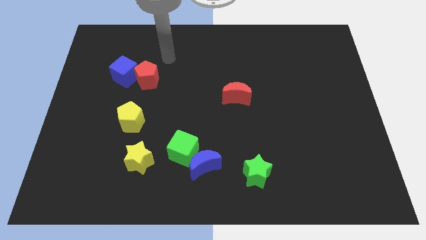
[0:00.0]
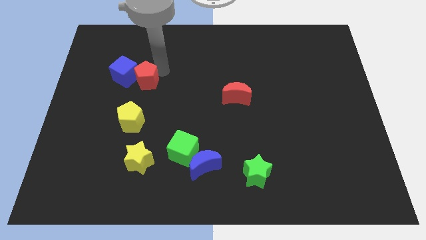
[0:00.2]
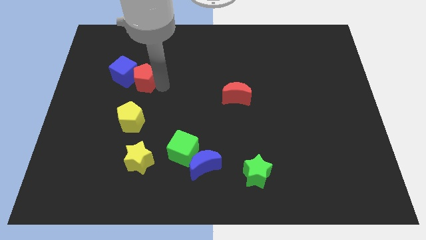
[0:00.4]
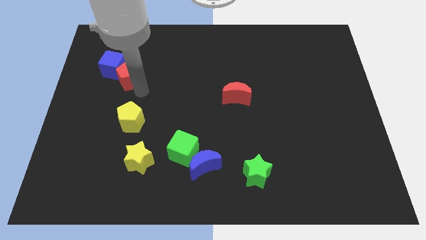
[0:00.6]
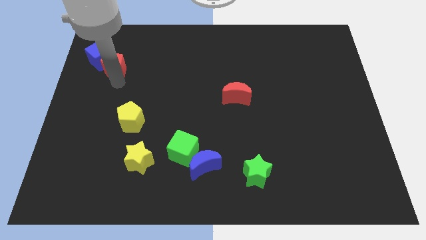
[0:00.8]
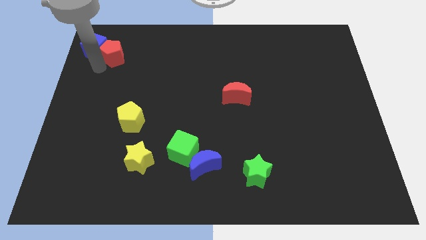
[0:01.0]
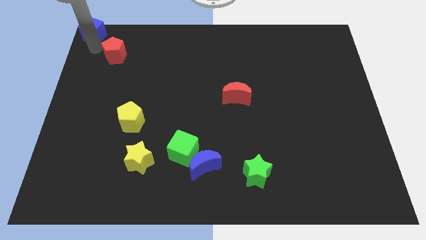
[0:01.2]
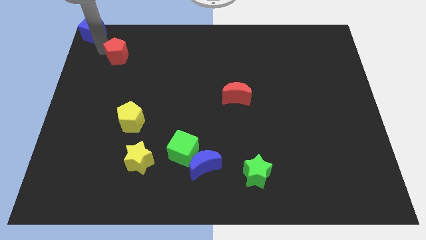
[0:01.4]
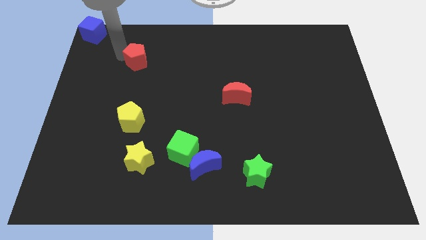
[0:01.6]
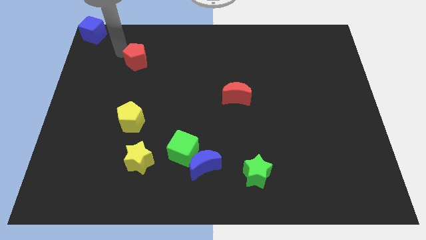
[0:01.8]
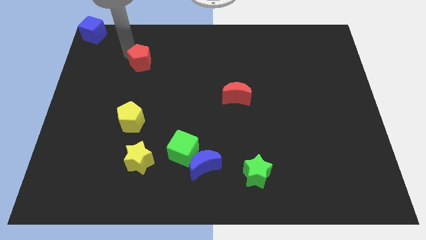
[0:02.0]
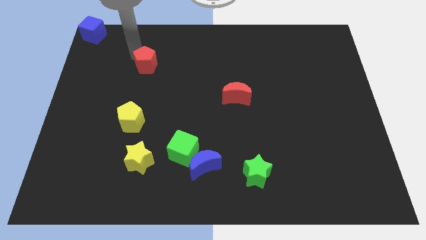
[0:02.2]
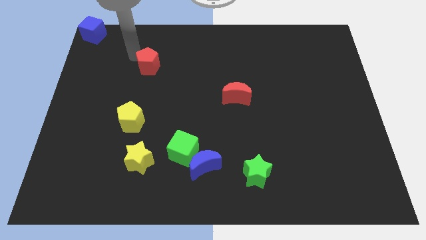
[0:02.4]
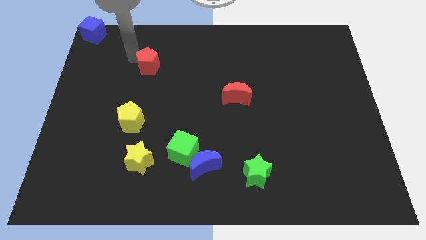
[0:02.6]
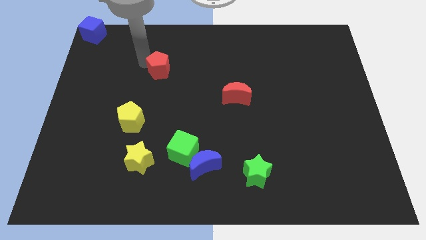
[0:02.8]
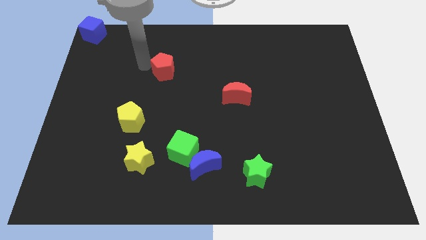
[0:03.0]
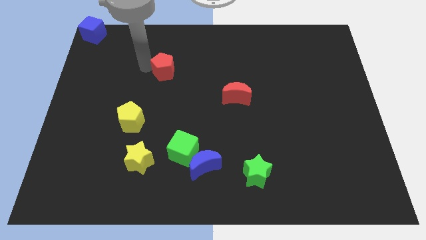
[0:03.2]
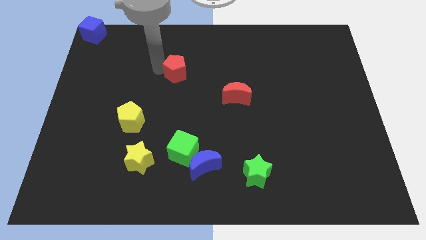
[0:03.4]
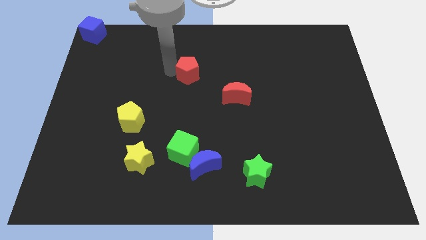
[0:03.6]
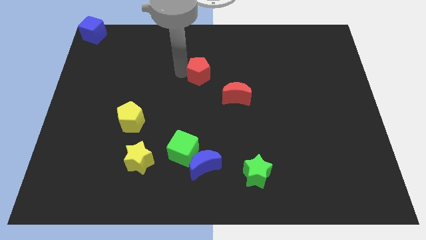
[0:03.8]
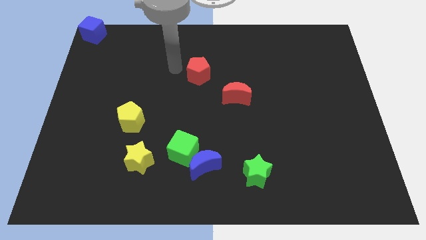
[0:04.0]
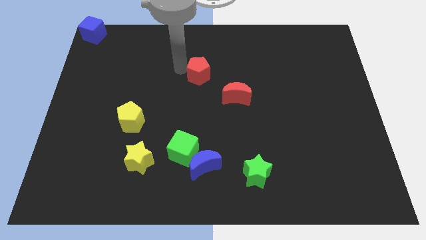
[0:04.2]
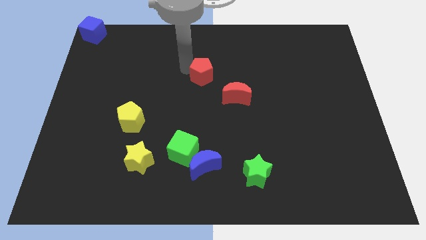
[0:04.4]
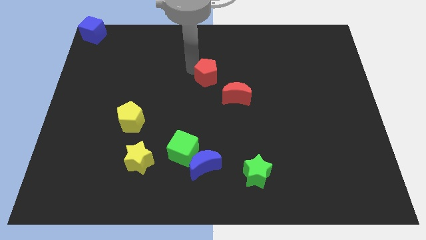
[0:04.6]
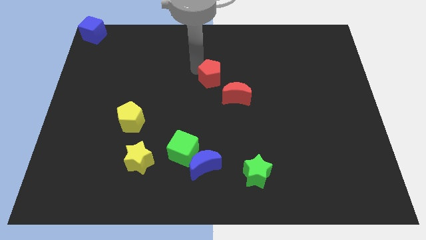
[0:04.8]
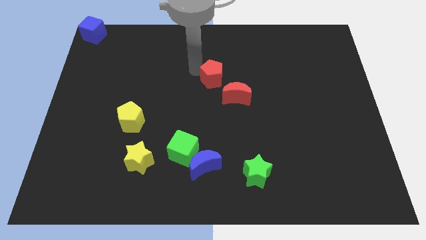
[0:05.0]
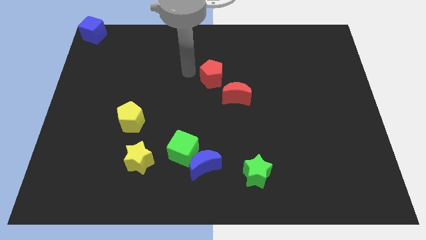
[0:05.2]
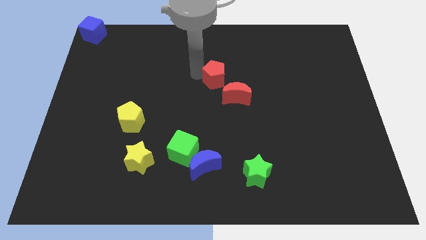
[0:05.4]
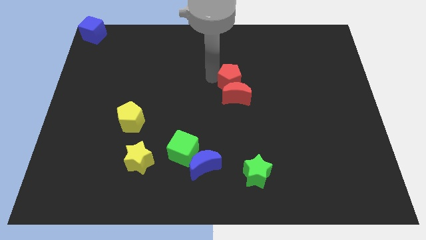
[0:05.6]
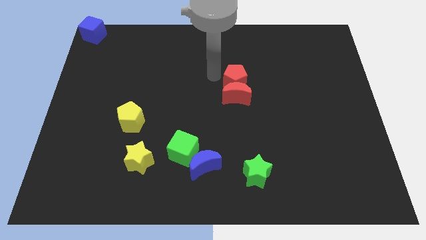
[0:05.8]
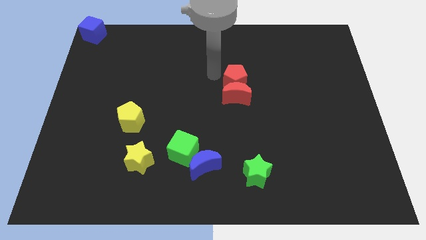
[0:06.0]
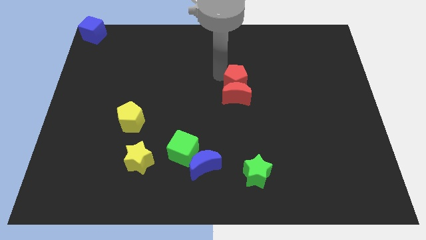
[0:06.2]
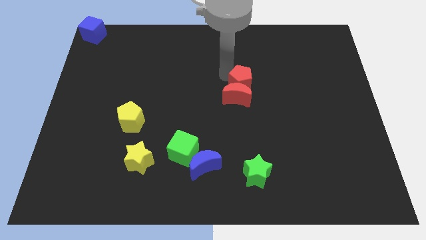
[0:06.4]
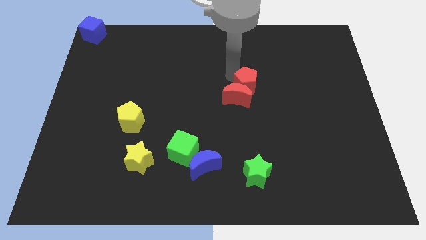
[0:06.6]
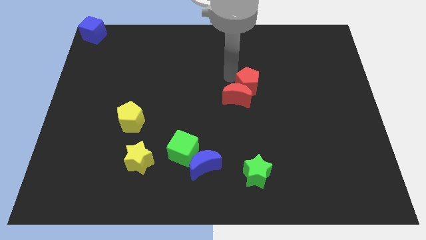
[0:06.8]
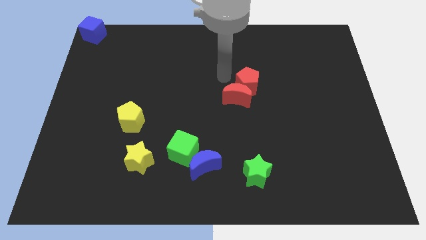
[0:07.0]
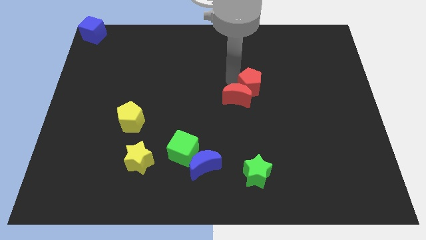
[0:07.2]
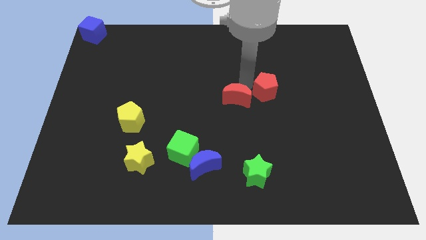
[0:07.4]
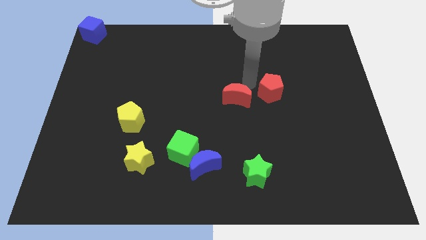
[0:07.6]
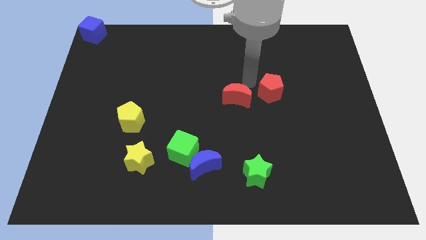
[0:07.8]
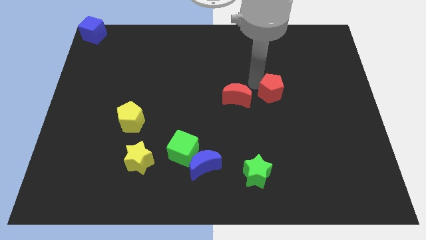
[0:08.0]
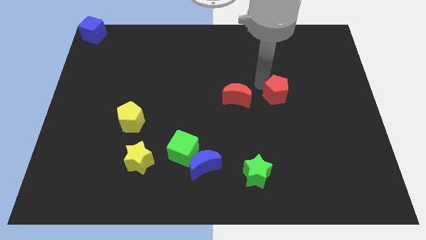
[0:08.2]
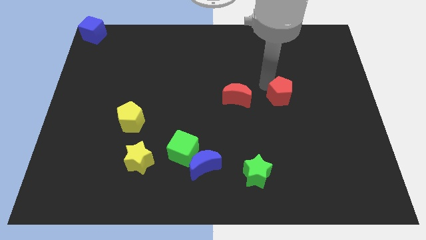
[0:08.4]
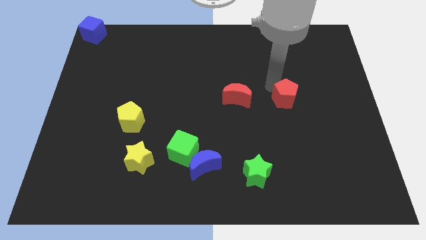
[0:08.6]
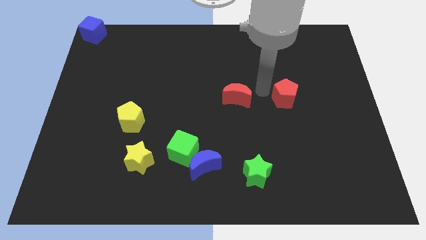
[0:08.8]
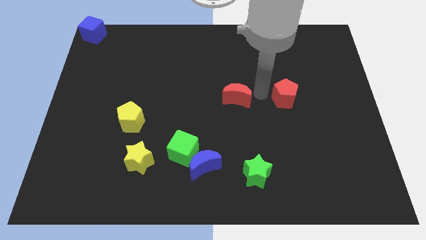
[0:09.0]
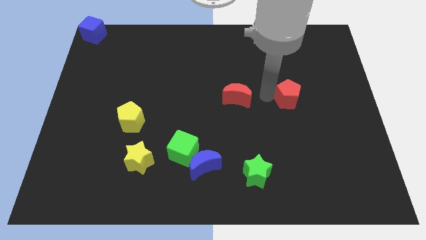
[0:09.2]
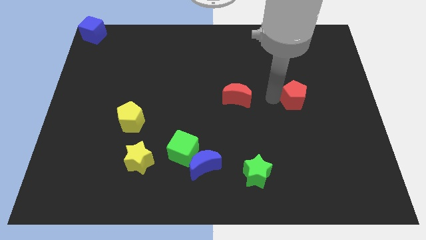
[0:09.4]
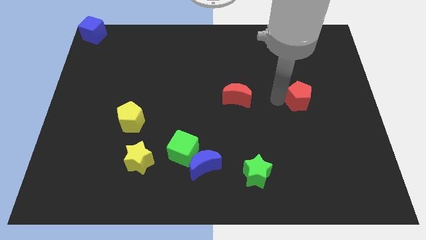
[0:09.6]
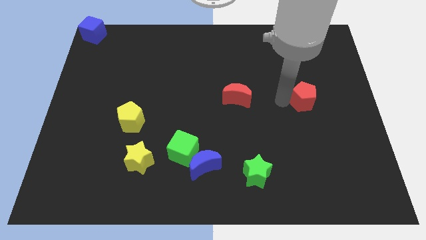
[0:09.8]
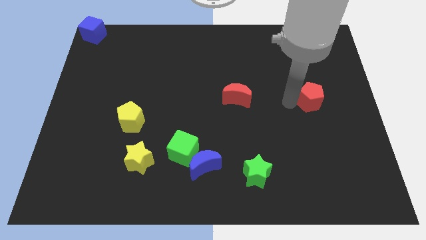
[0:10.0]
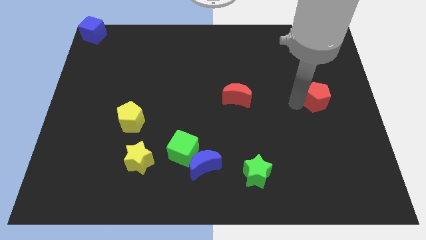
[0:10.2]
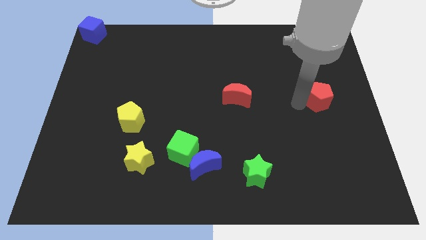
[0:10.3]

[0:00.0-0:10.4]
put the red pentagon to the right side

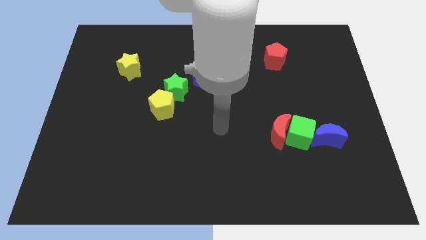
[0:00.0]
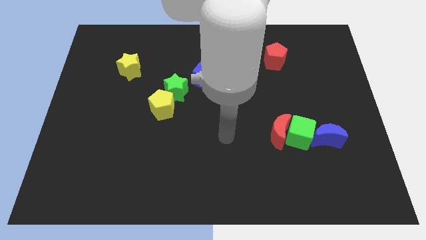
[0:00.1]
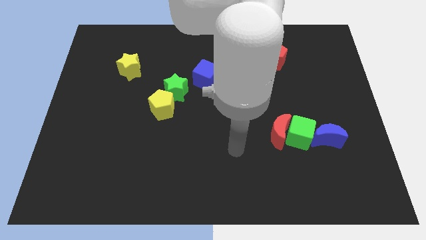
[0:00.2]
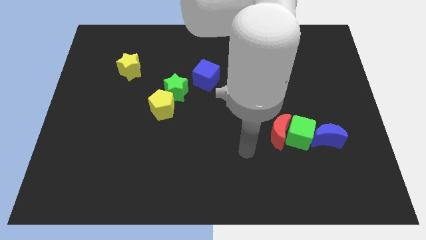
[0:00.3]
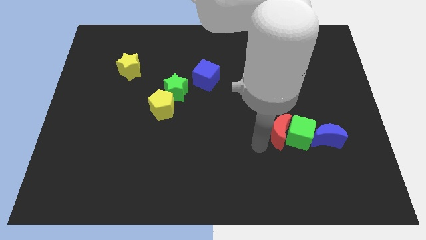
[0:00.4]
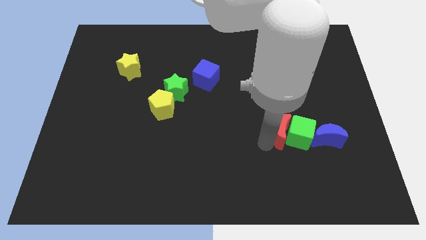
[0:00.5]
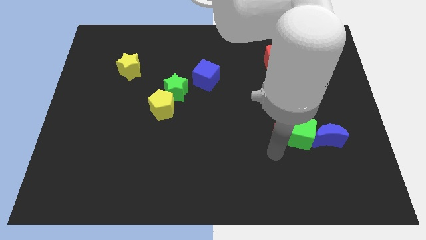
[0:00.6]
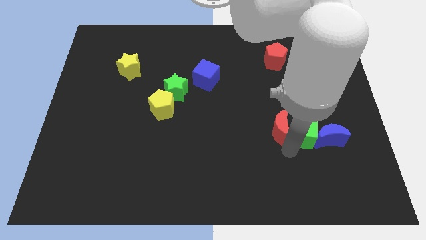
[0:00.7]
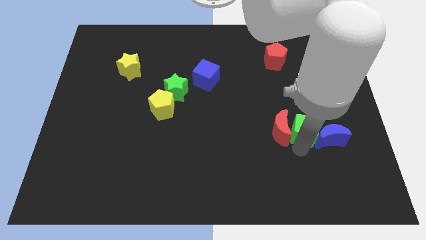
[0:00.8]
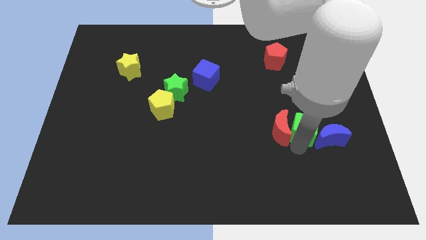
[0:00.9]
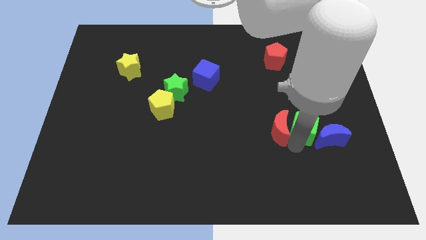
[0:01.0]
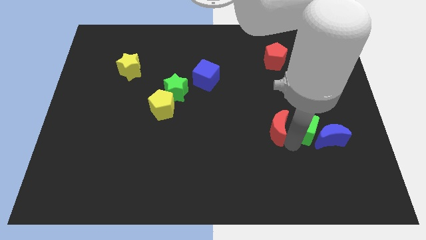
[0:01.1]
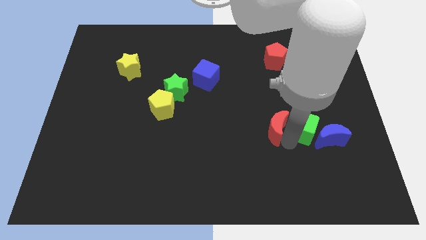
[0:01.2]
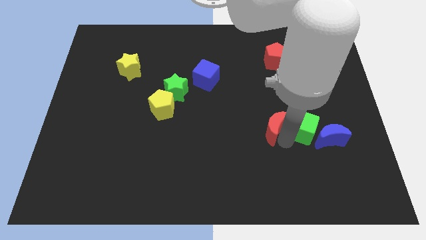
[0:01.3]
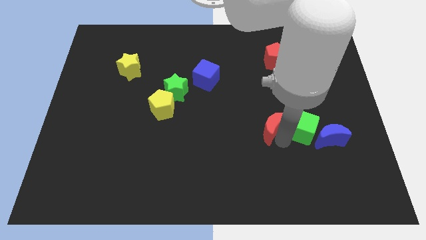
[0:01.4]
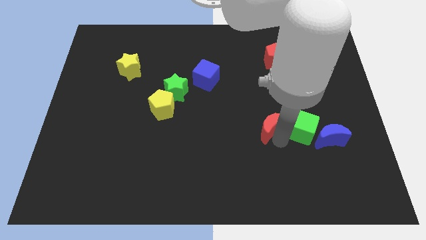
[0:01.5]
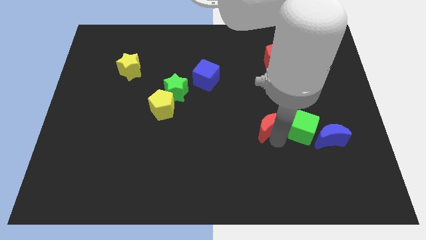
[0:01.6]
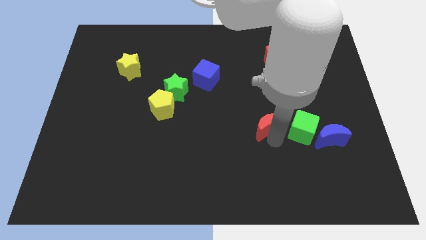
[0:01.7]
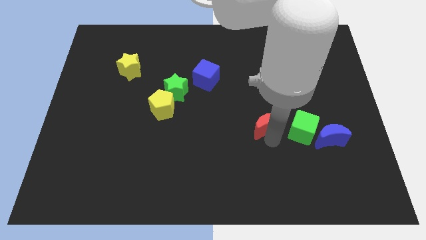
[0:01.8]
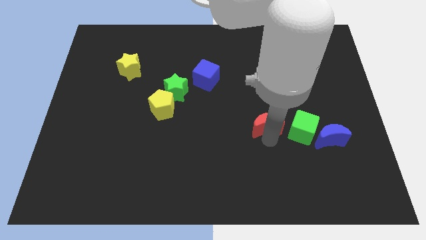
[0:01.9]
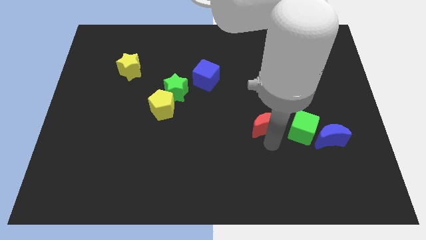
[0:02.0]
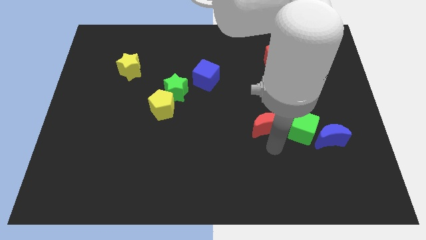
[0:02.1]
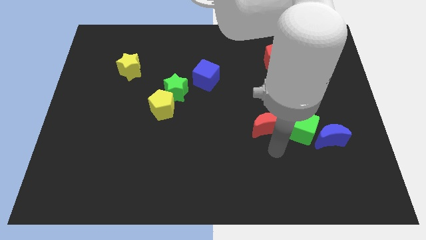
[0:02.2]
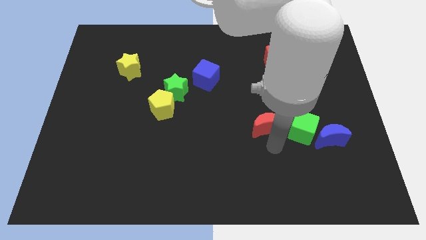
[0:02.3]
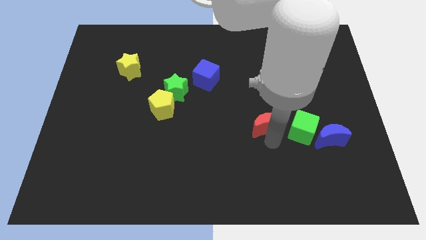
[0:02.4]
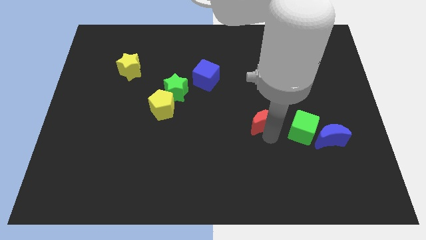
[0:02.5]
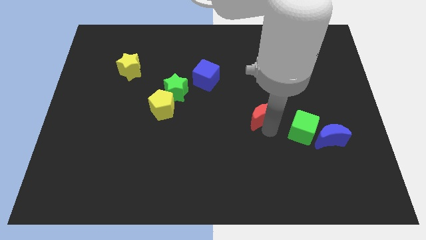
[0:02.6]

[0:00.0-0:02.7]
slide the red moon to the middle

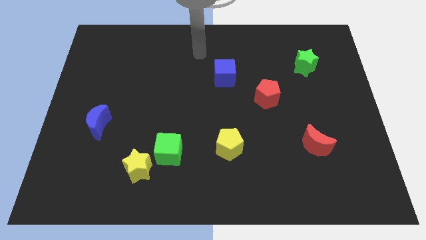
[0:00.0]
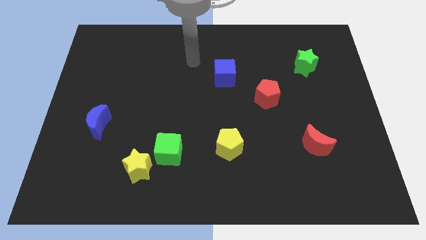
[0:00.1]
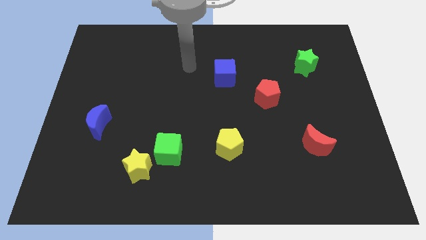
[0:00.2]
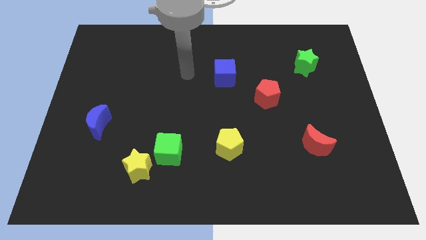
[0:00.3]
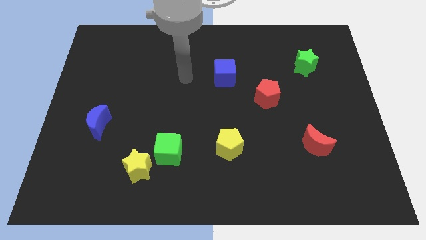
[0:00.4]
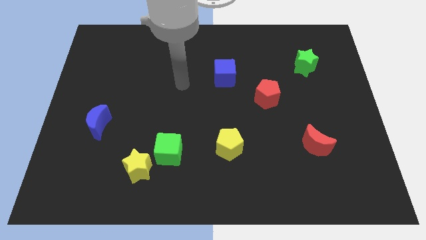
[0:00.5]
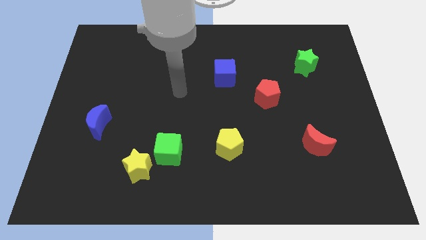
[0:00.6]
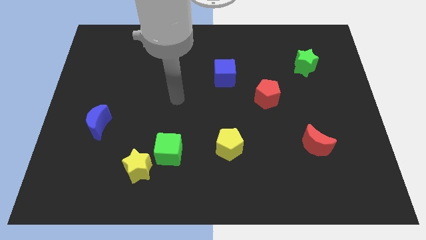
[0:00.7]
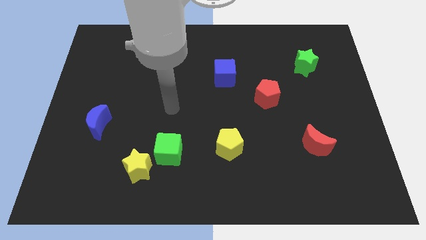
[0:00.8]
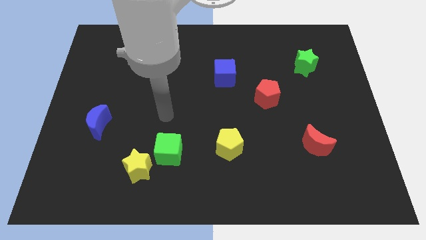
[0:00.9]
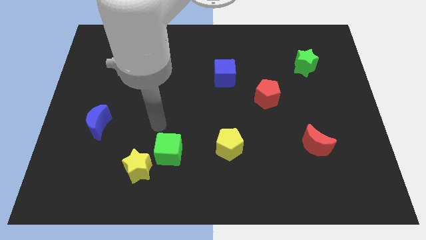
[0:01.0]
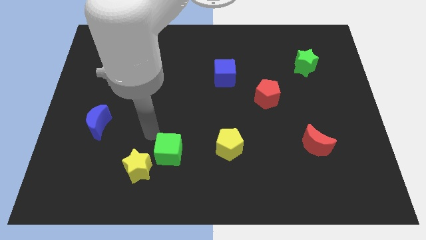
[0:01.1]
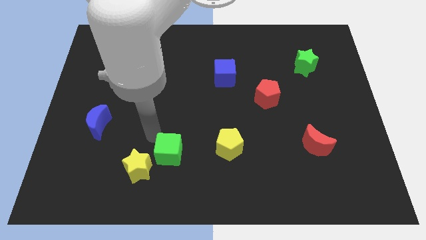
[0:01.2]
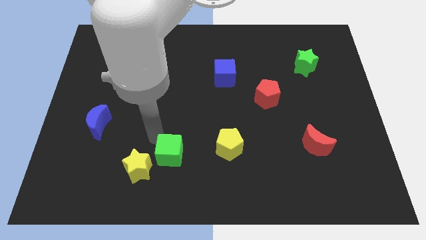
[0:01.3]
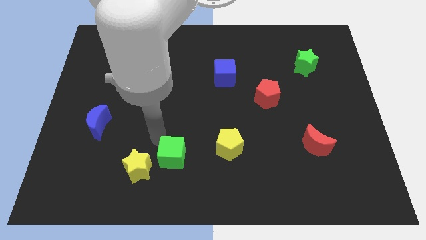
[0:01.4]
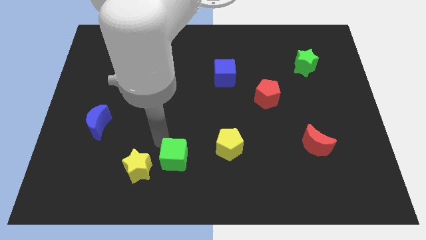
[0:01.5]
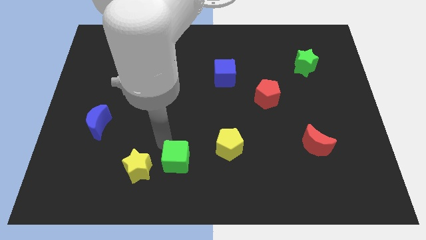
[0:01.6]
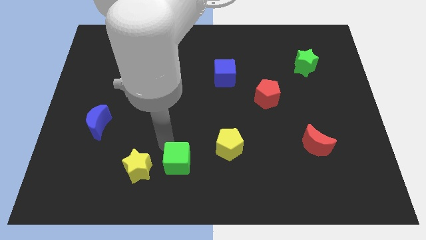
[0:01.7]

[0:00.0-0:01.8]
put the green cube to the bottom side
